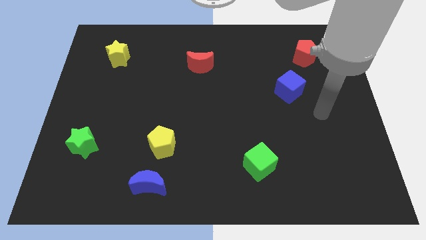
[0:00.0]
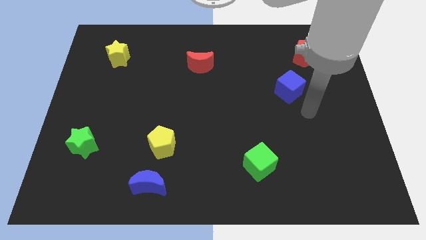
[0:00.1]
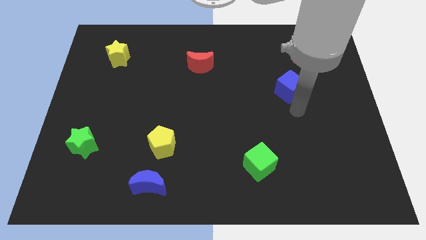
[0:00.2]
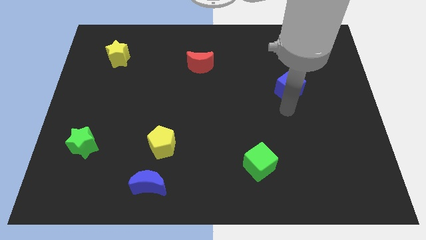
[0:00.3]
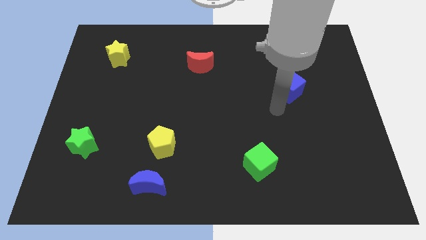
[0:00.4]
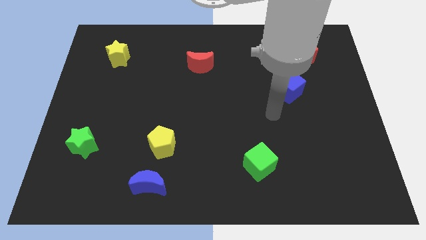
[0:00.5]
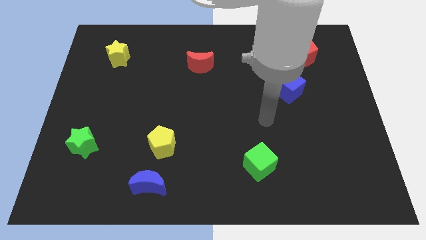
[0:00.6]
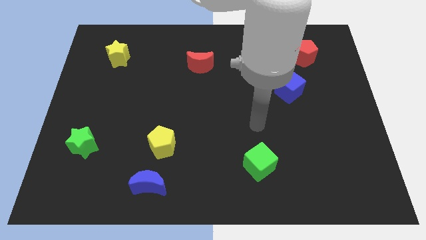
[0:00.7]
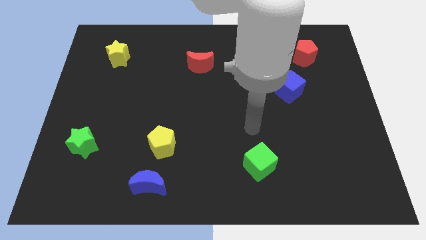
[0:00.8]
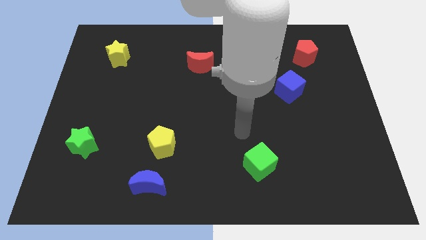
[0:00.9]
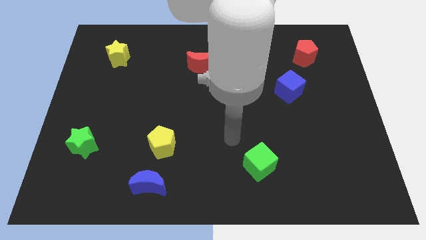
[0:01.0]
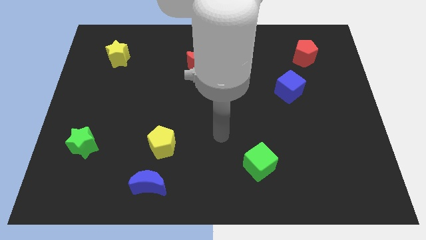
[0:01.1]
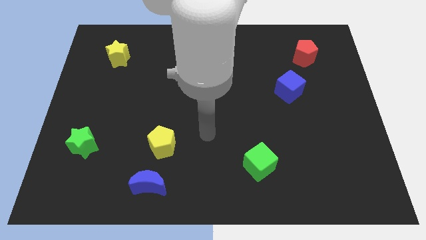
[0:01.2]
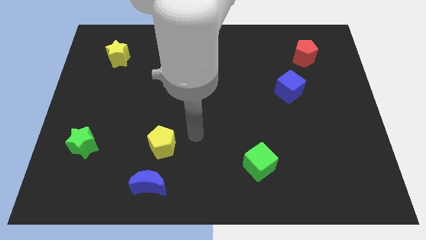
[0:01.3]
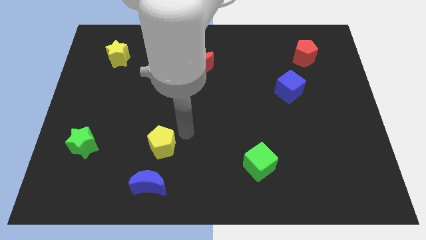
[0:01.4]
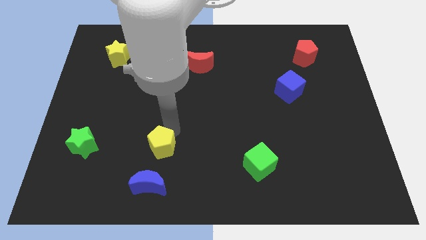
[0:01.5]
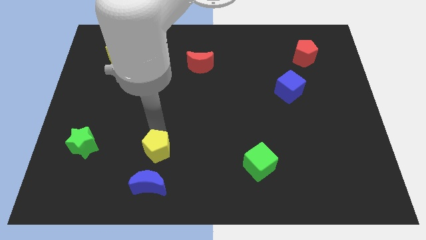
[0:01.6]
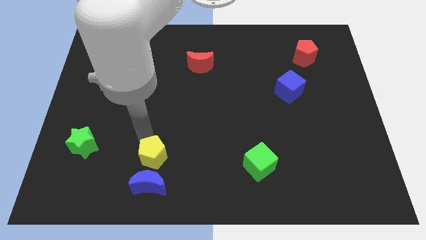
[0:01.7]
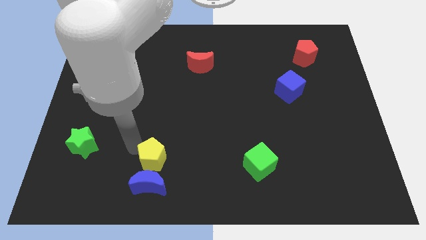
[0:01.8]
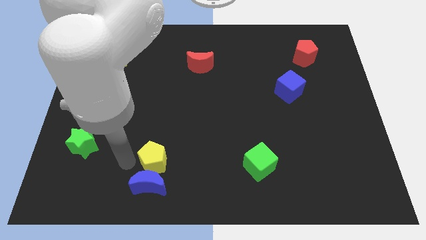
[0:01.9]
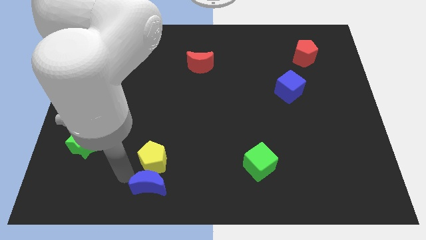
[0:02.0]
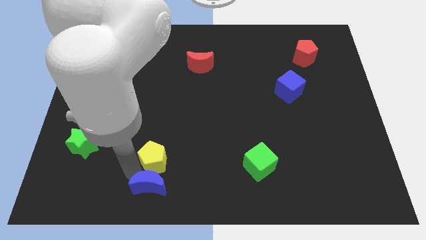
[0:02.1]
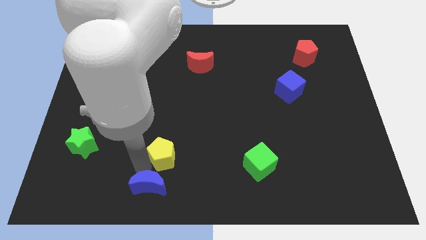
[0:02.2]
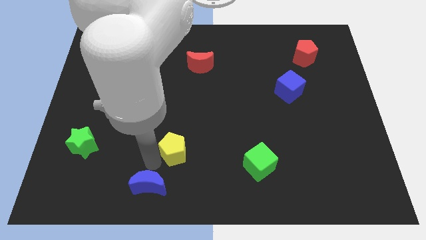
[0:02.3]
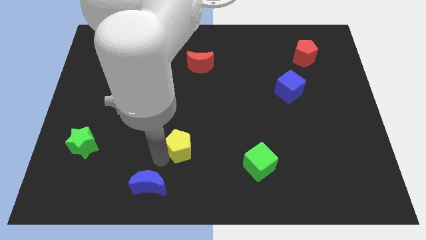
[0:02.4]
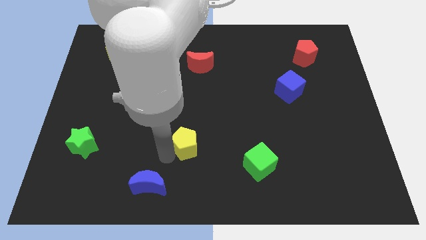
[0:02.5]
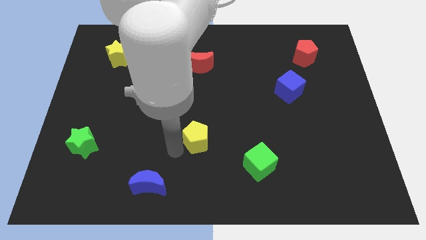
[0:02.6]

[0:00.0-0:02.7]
push the yellow pentagon to the right somewhat

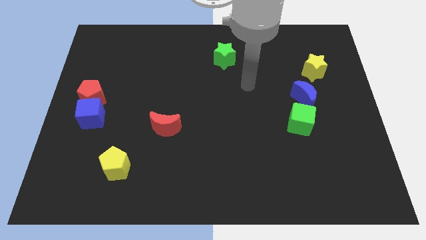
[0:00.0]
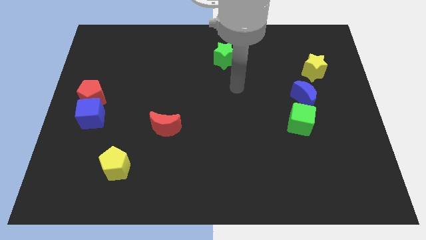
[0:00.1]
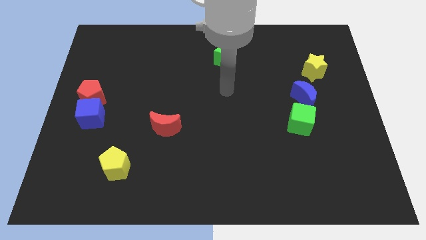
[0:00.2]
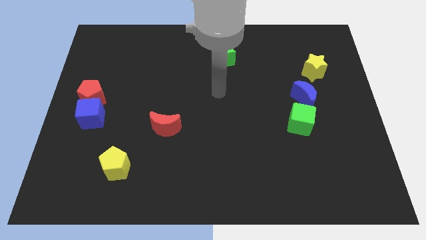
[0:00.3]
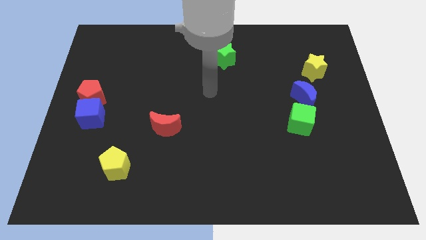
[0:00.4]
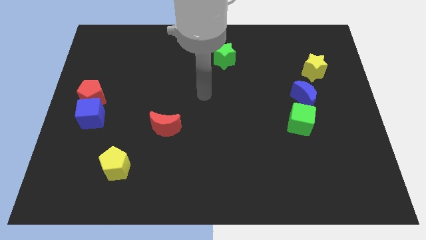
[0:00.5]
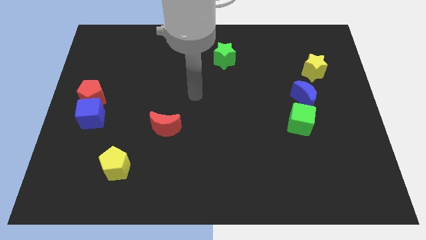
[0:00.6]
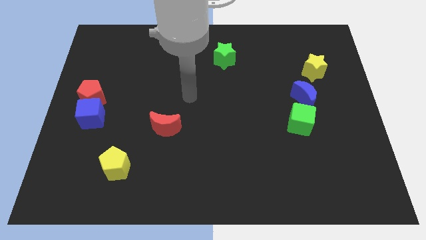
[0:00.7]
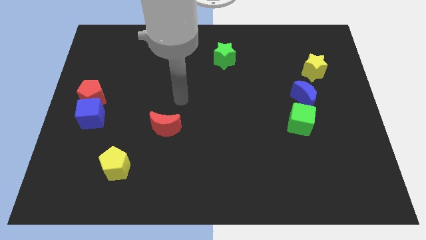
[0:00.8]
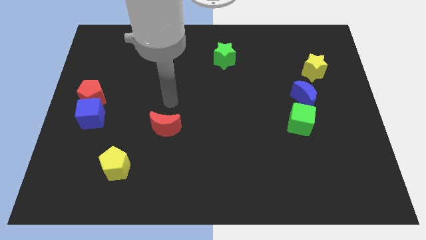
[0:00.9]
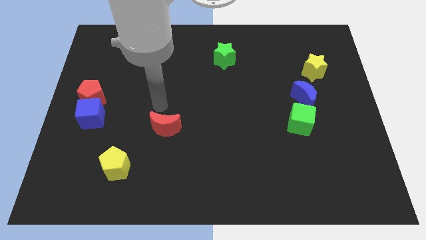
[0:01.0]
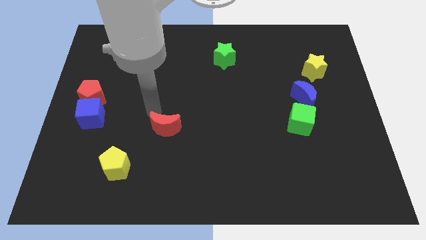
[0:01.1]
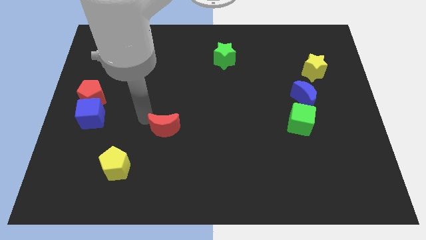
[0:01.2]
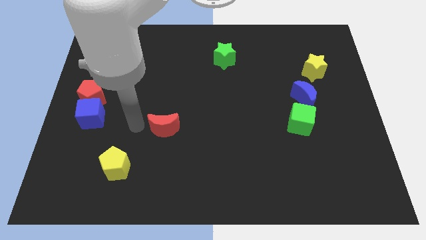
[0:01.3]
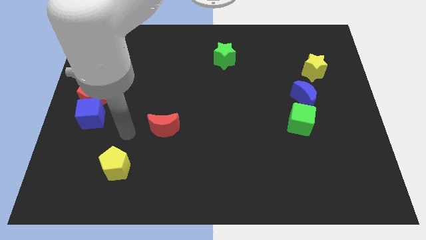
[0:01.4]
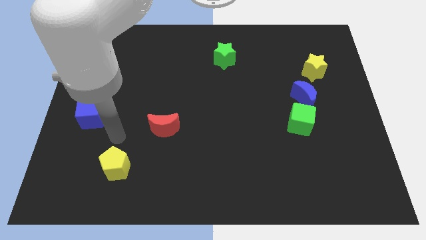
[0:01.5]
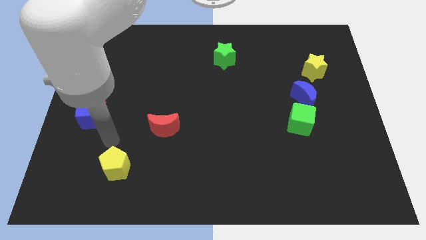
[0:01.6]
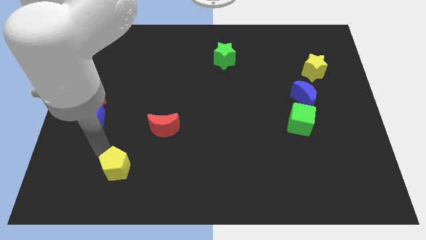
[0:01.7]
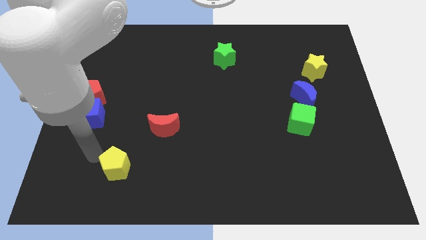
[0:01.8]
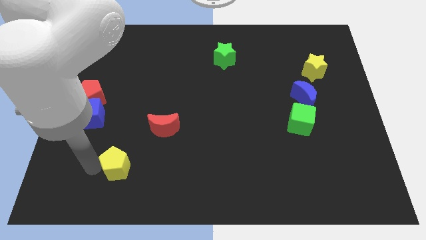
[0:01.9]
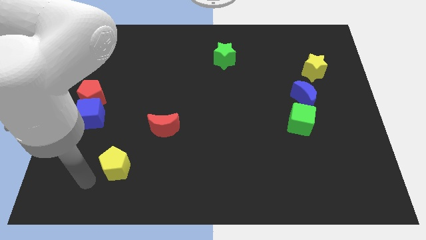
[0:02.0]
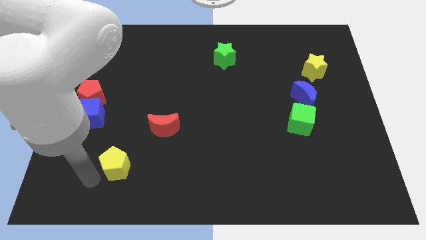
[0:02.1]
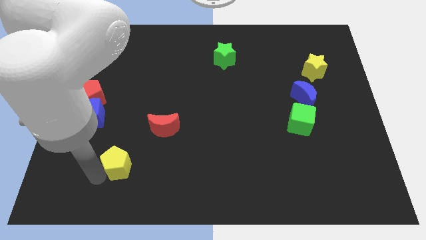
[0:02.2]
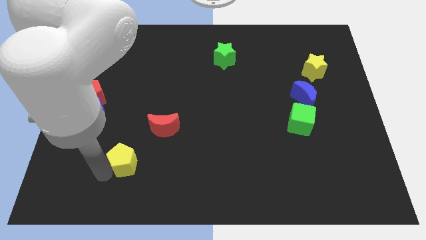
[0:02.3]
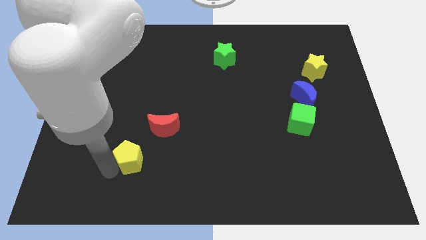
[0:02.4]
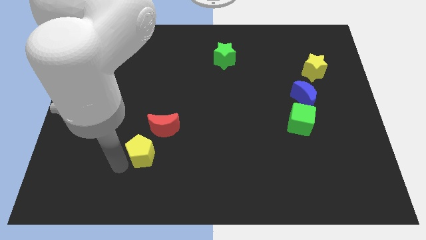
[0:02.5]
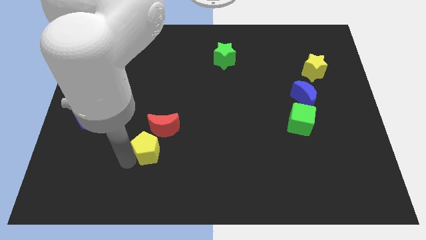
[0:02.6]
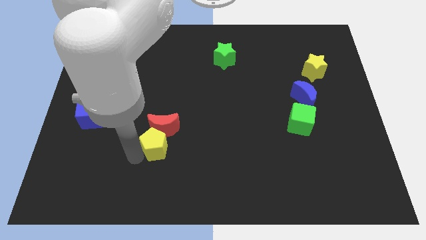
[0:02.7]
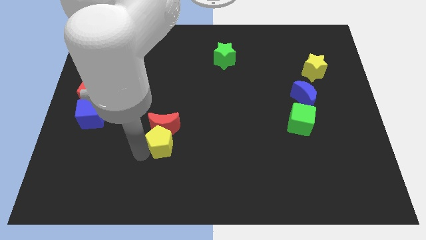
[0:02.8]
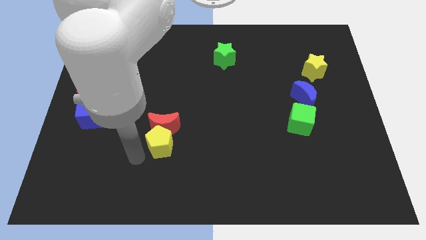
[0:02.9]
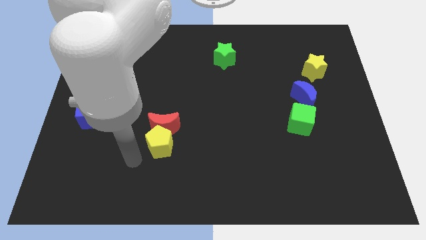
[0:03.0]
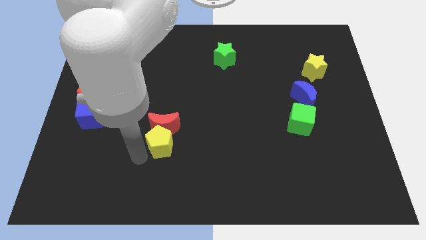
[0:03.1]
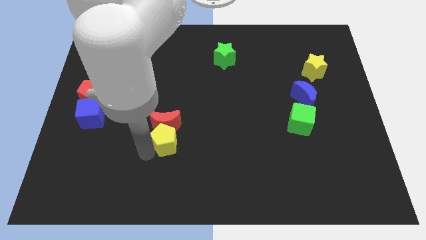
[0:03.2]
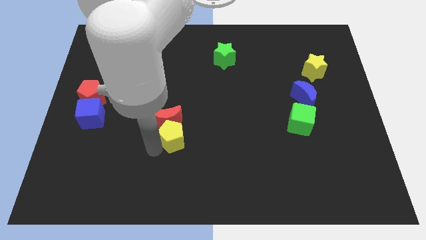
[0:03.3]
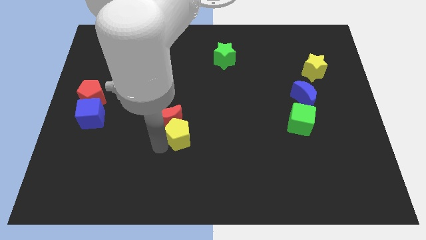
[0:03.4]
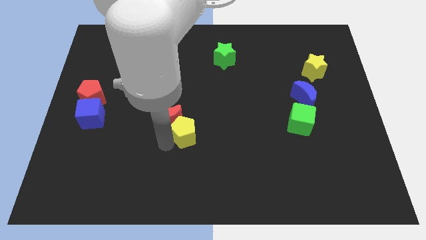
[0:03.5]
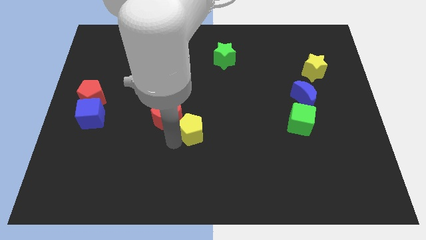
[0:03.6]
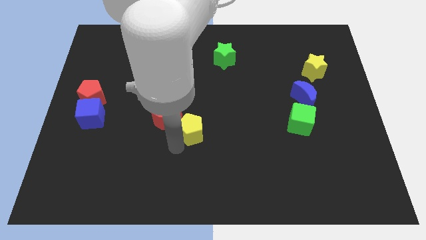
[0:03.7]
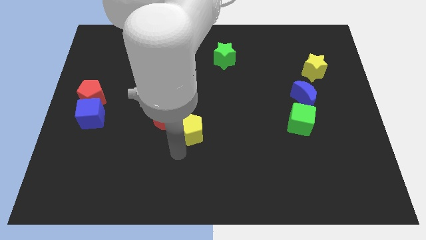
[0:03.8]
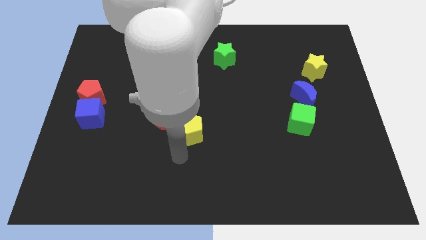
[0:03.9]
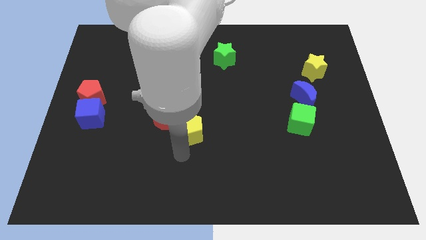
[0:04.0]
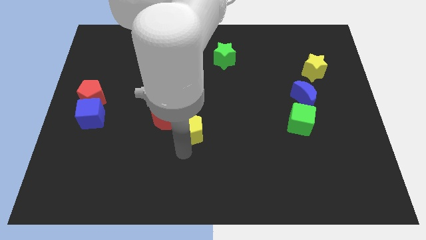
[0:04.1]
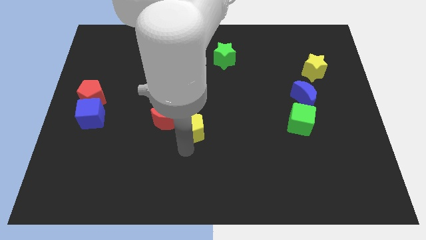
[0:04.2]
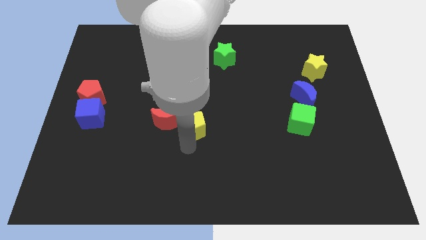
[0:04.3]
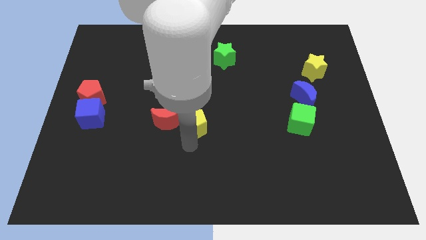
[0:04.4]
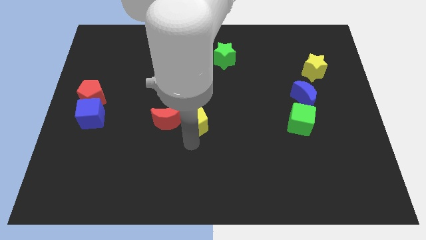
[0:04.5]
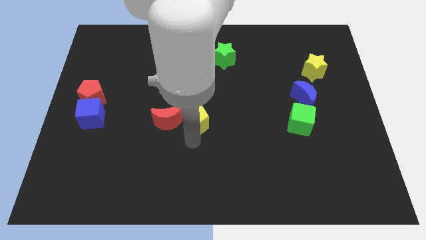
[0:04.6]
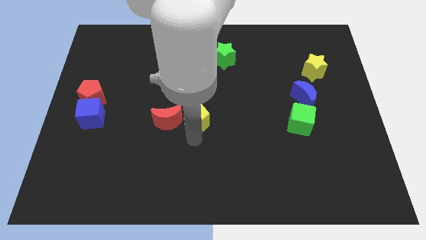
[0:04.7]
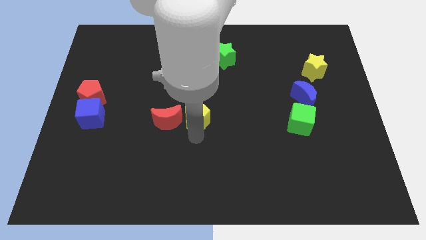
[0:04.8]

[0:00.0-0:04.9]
move the yellow pentagon upwards and to the right diagonally

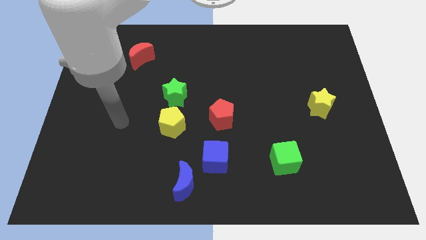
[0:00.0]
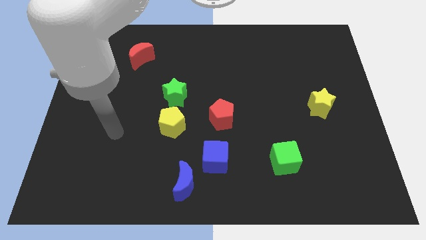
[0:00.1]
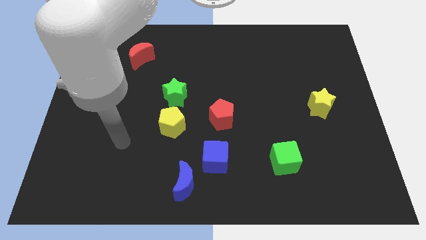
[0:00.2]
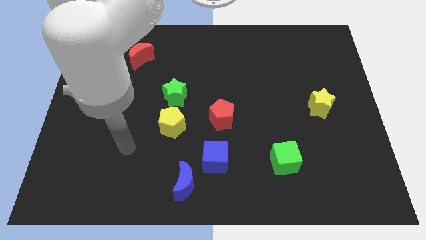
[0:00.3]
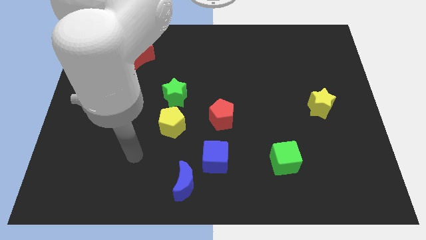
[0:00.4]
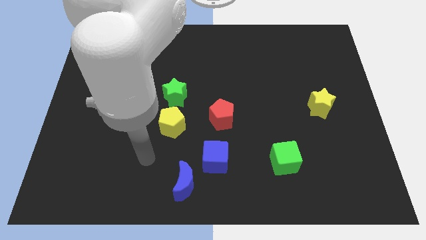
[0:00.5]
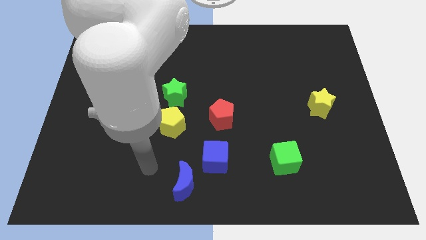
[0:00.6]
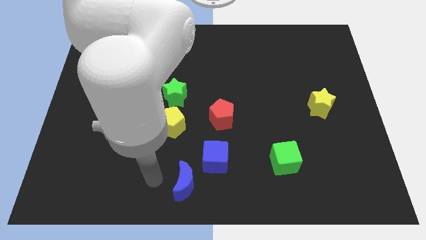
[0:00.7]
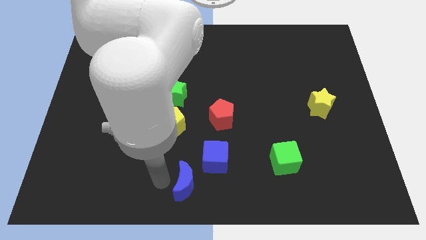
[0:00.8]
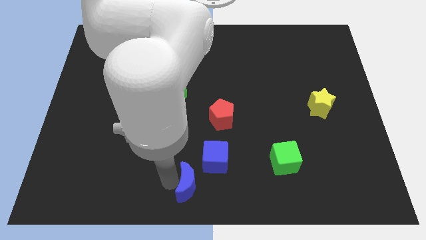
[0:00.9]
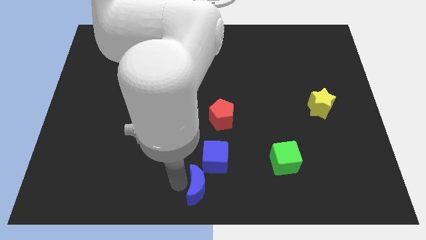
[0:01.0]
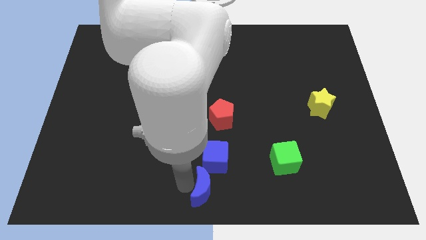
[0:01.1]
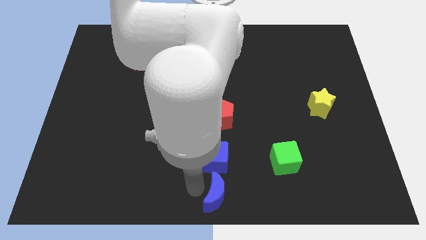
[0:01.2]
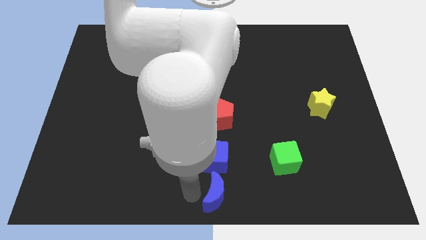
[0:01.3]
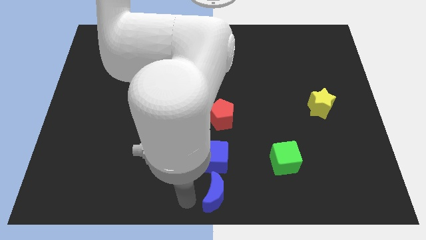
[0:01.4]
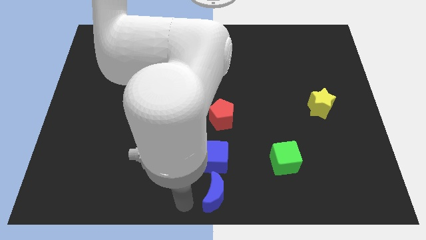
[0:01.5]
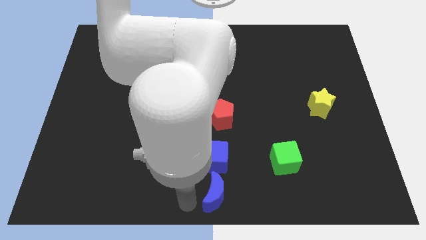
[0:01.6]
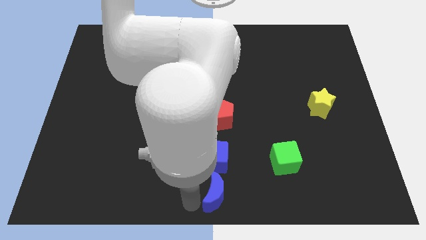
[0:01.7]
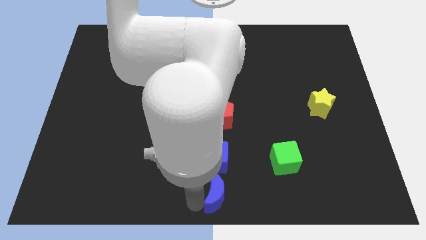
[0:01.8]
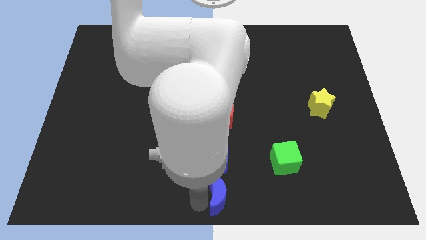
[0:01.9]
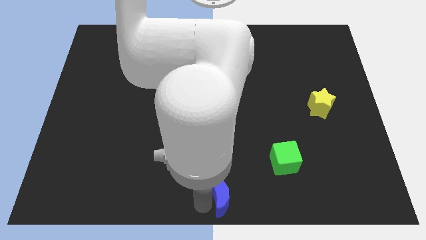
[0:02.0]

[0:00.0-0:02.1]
slightly slide the blue moon to the right
